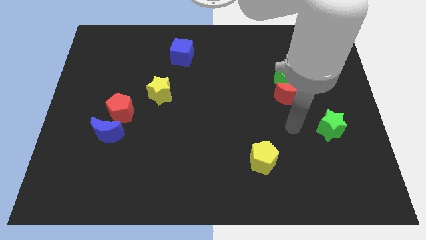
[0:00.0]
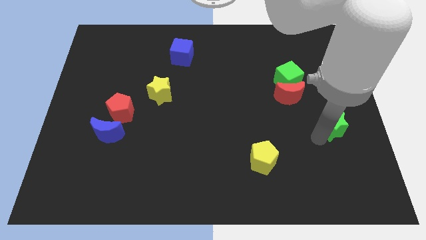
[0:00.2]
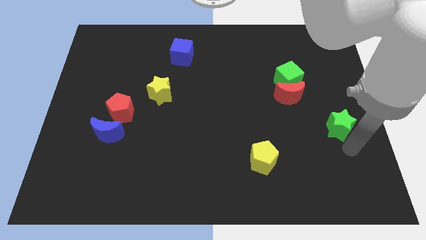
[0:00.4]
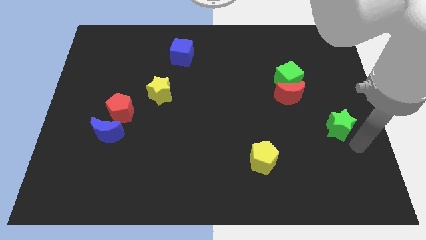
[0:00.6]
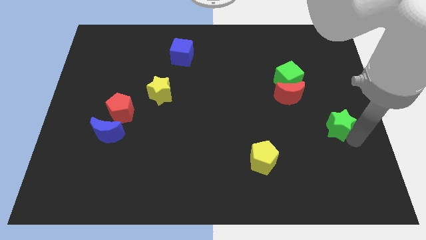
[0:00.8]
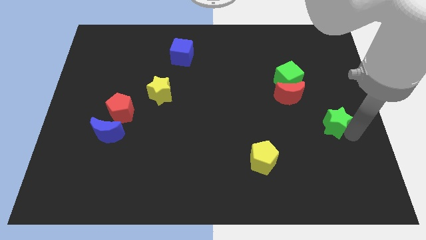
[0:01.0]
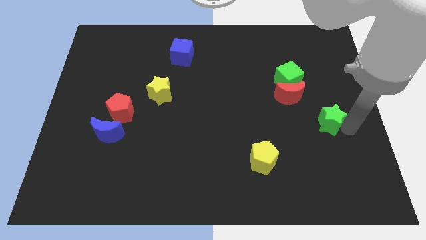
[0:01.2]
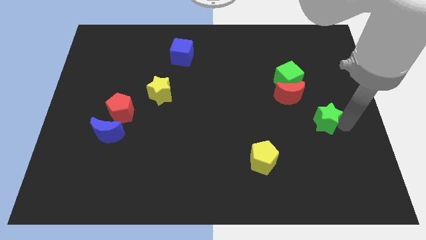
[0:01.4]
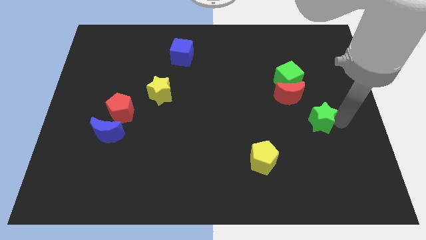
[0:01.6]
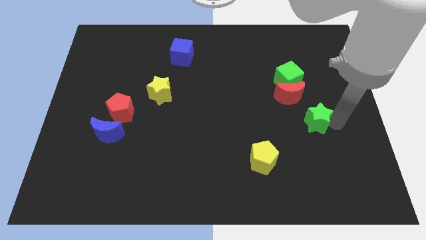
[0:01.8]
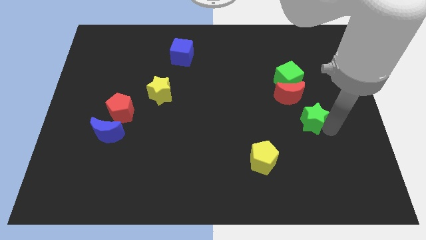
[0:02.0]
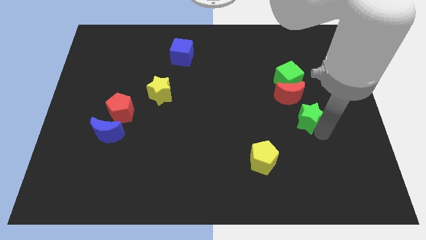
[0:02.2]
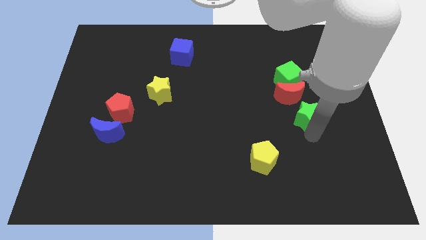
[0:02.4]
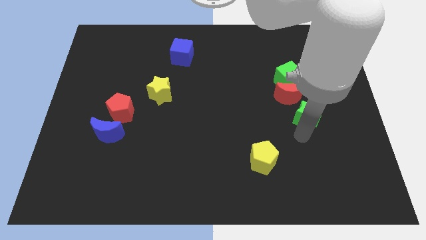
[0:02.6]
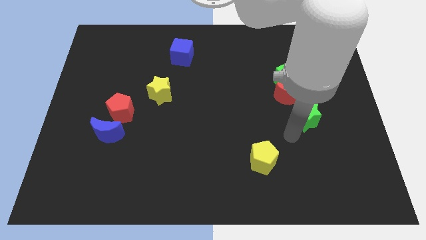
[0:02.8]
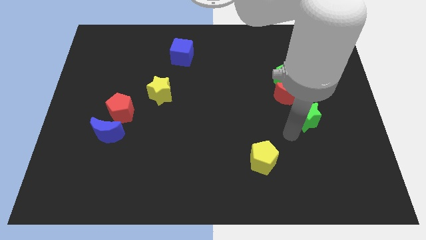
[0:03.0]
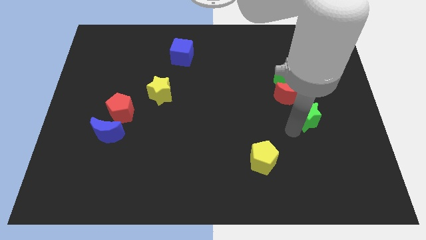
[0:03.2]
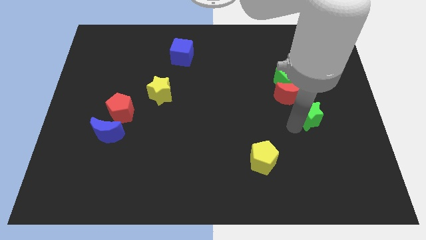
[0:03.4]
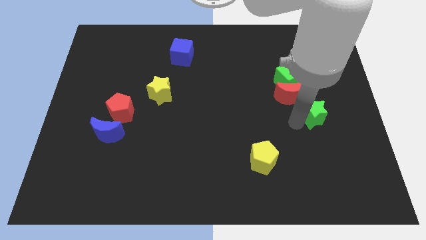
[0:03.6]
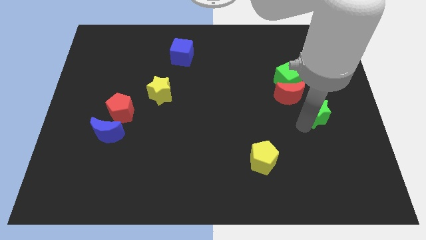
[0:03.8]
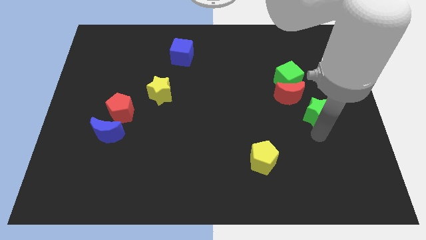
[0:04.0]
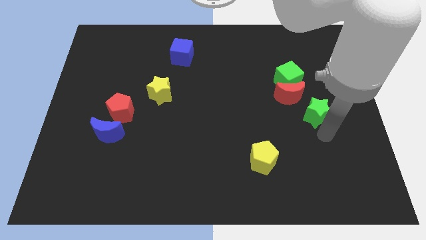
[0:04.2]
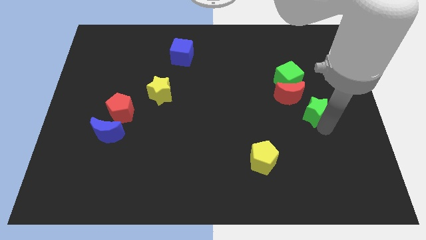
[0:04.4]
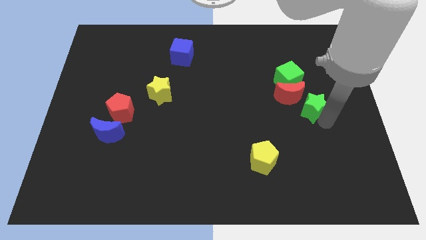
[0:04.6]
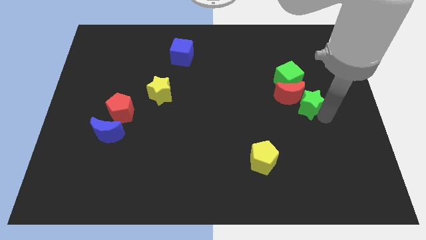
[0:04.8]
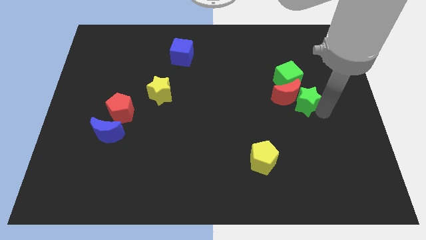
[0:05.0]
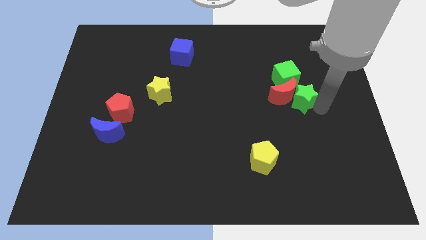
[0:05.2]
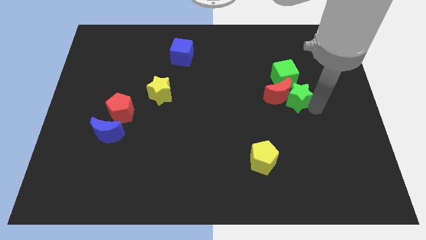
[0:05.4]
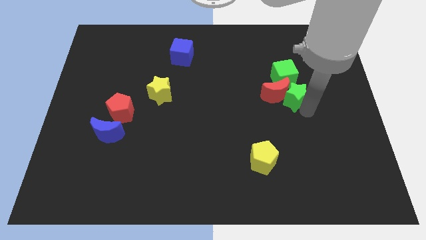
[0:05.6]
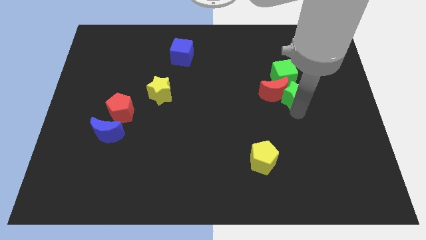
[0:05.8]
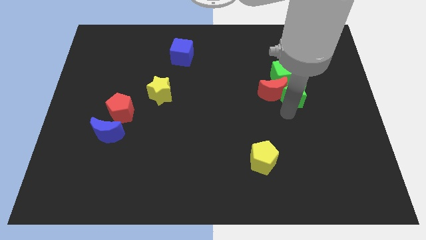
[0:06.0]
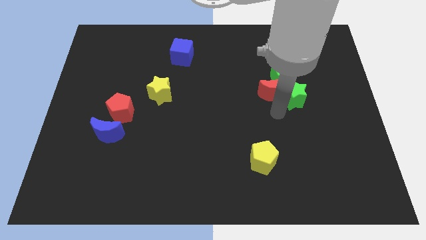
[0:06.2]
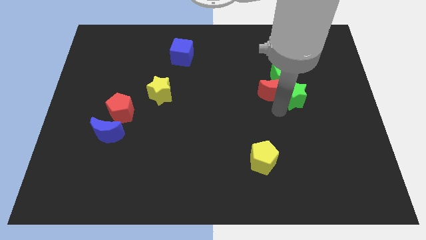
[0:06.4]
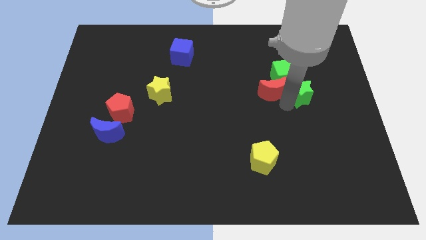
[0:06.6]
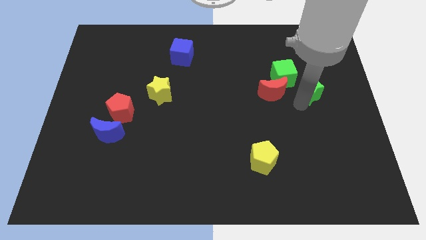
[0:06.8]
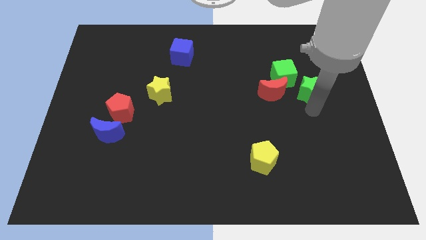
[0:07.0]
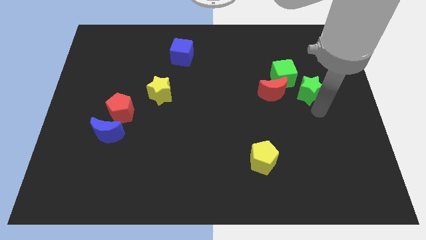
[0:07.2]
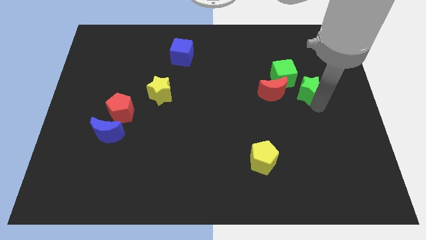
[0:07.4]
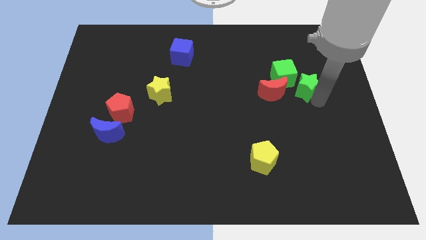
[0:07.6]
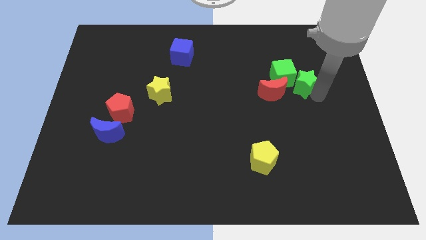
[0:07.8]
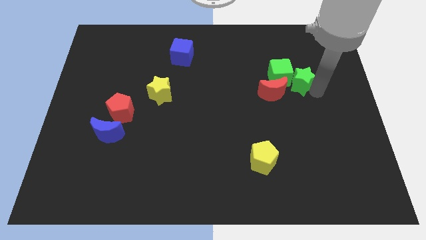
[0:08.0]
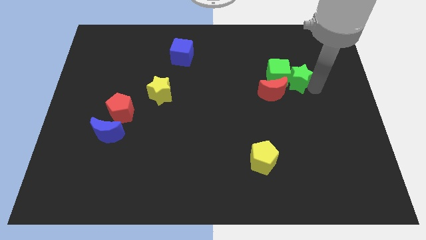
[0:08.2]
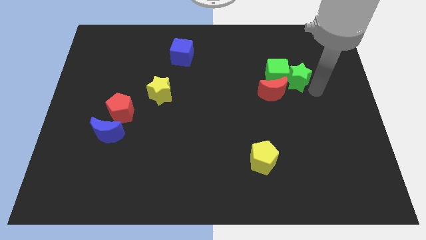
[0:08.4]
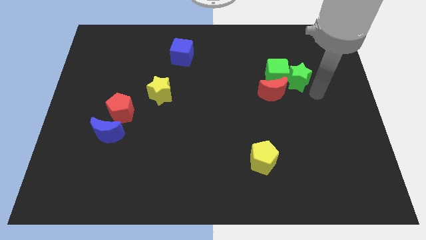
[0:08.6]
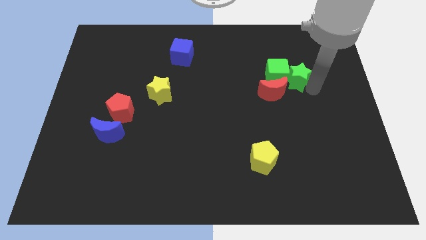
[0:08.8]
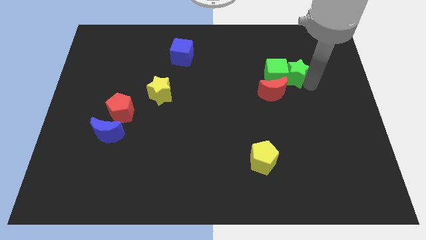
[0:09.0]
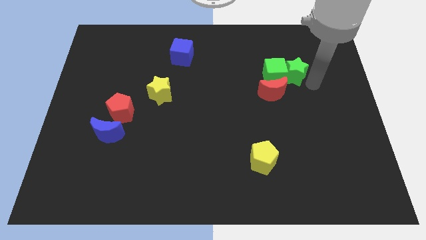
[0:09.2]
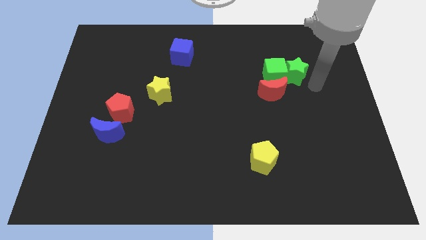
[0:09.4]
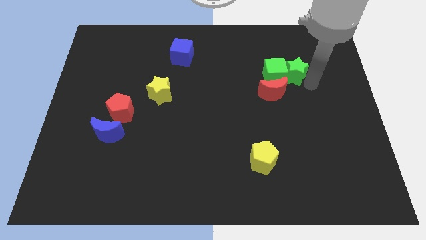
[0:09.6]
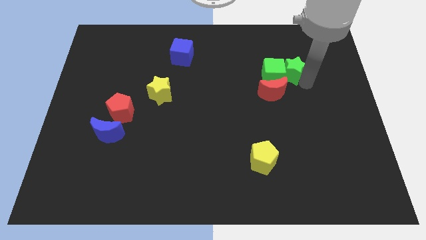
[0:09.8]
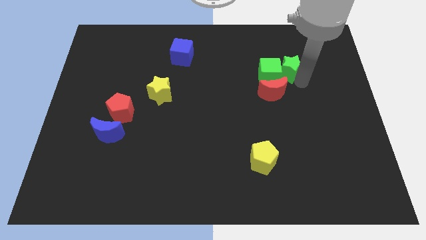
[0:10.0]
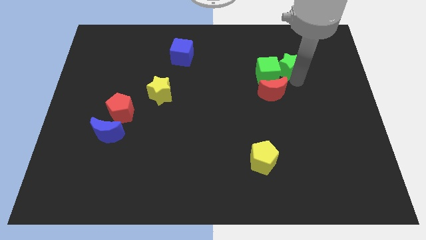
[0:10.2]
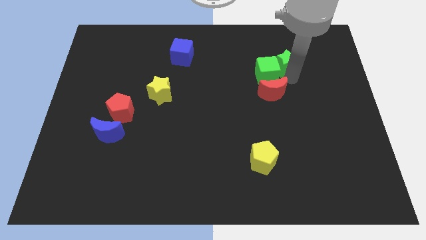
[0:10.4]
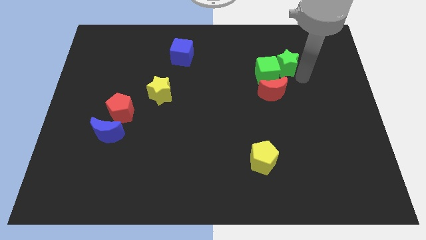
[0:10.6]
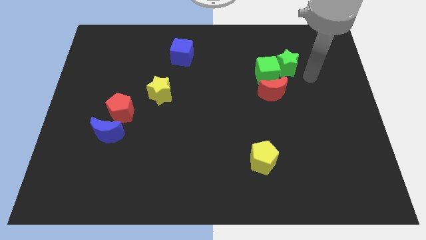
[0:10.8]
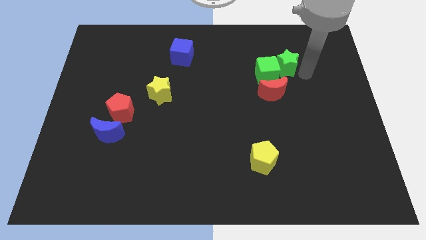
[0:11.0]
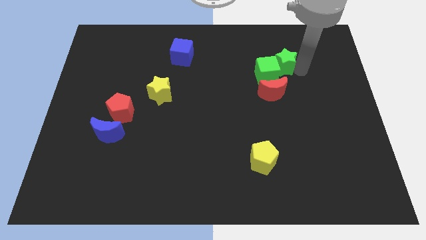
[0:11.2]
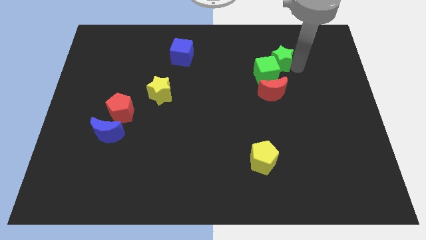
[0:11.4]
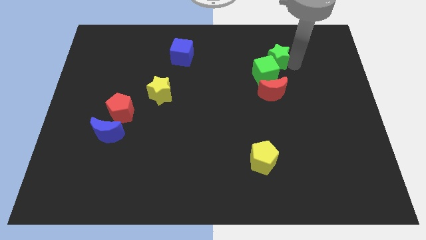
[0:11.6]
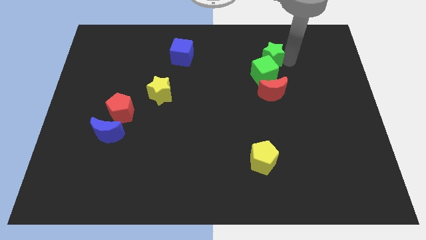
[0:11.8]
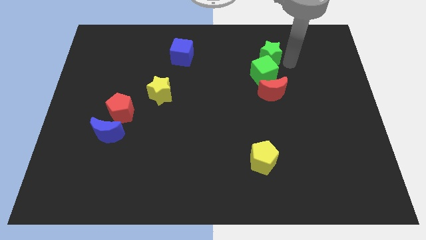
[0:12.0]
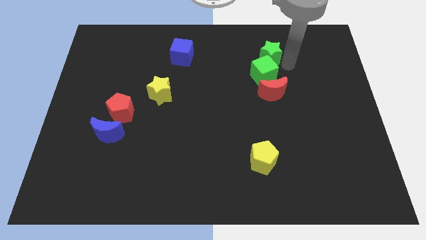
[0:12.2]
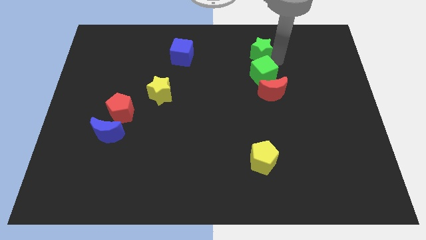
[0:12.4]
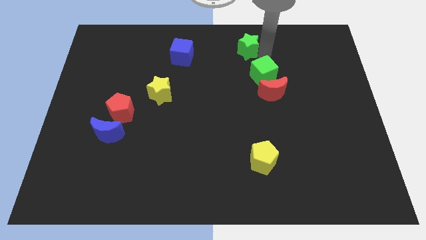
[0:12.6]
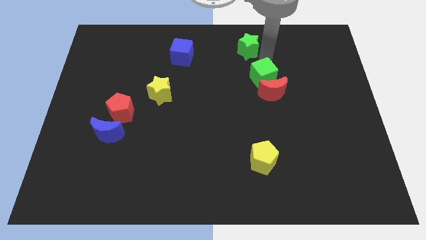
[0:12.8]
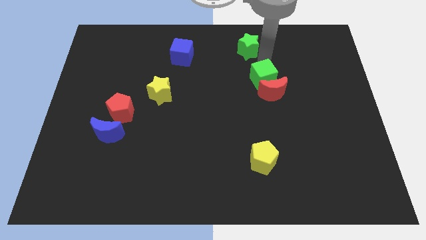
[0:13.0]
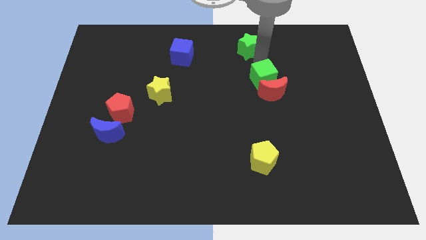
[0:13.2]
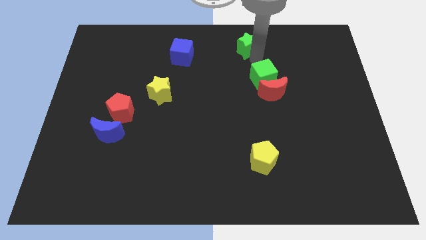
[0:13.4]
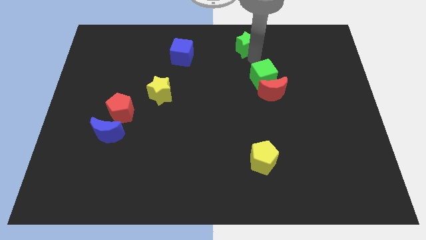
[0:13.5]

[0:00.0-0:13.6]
push the green star to the towards your base

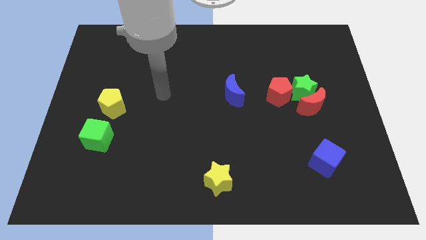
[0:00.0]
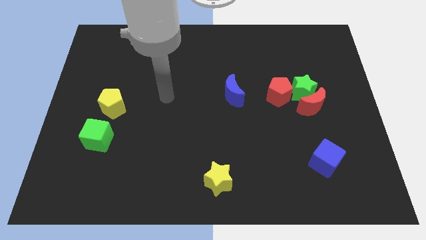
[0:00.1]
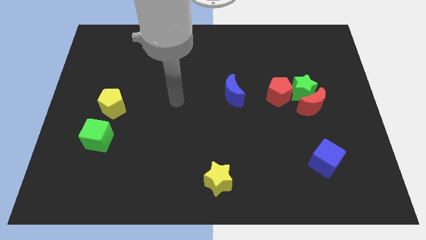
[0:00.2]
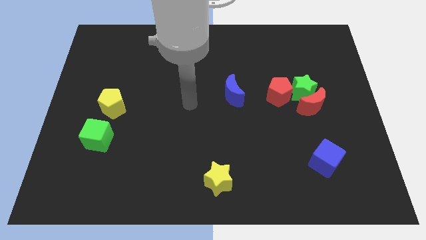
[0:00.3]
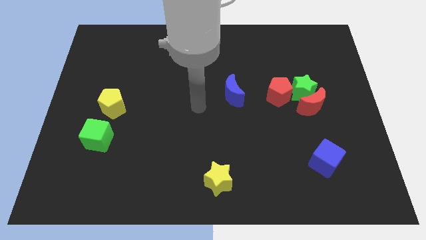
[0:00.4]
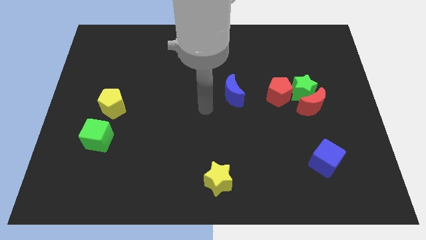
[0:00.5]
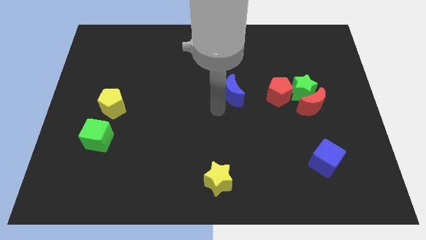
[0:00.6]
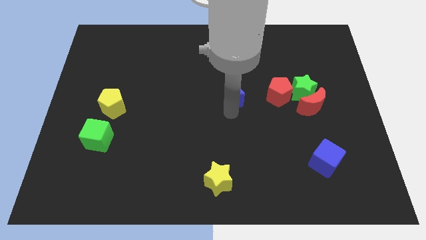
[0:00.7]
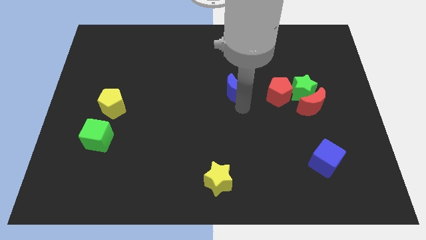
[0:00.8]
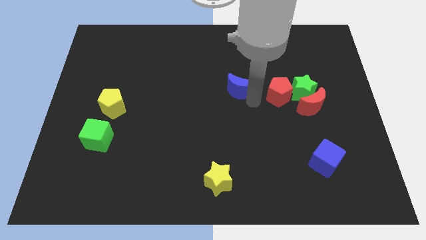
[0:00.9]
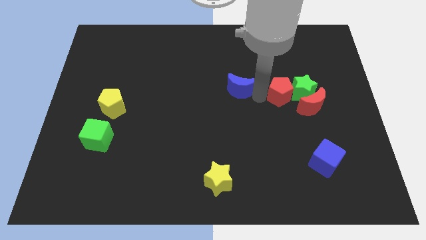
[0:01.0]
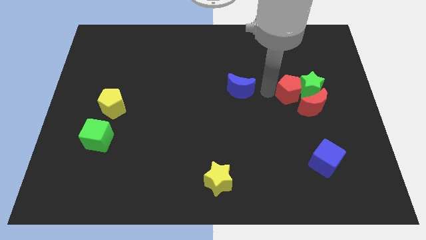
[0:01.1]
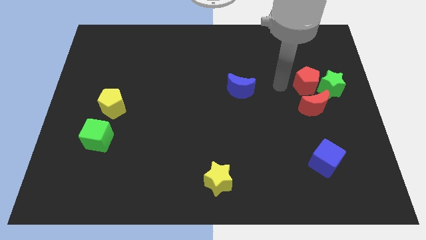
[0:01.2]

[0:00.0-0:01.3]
put the green star to the right side
